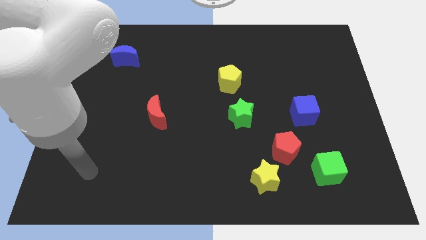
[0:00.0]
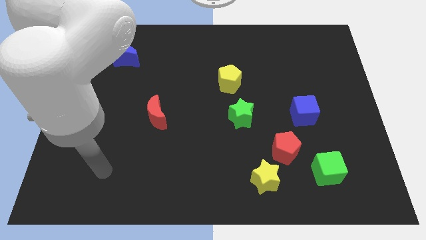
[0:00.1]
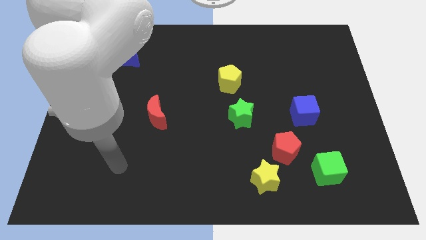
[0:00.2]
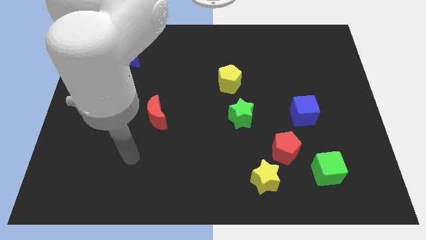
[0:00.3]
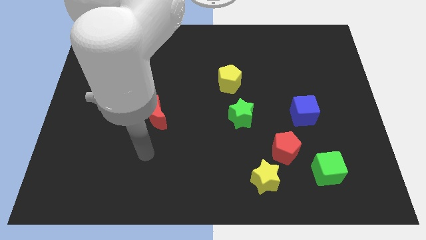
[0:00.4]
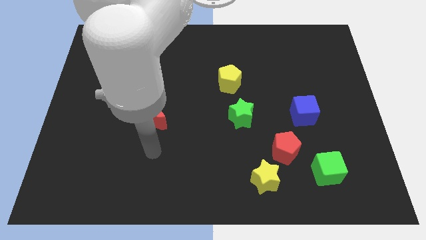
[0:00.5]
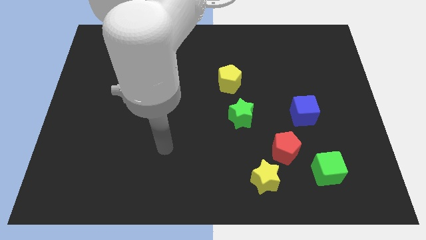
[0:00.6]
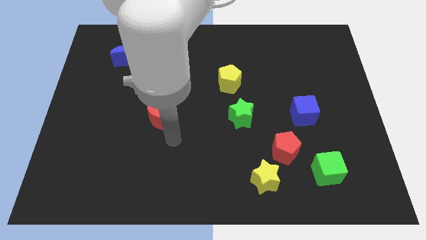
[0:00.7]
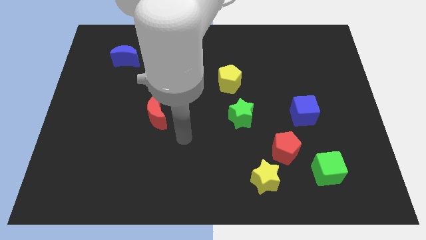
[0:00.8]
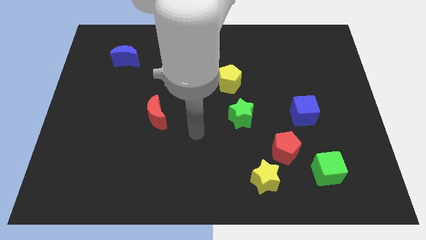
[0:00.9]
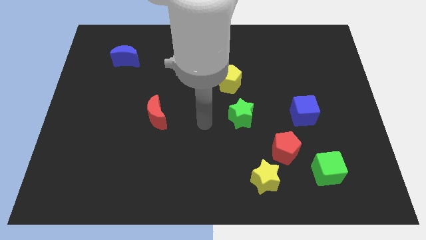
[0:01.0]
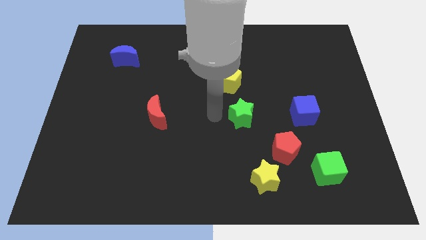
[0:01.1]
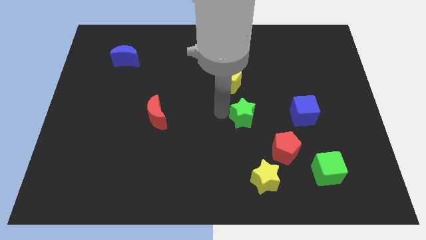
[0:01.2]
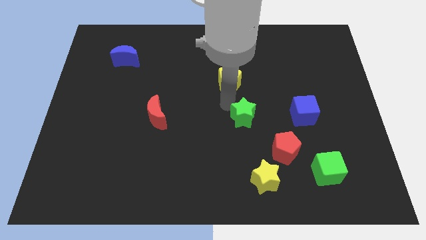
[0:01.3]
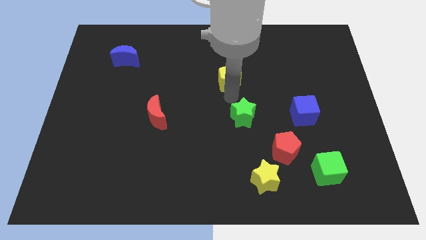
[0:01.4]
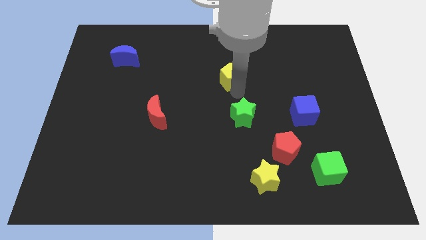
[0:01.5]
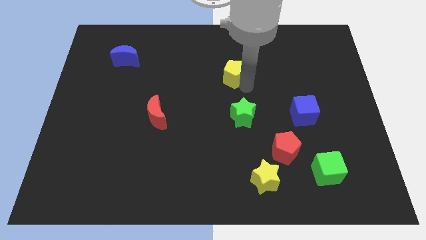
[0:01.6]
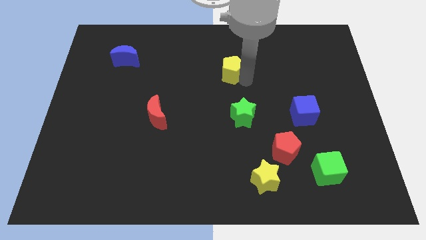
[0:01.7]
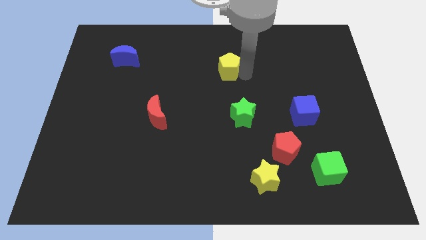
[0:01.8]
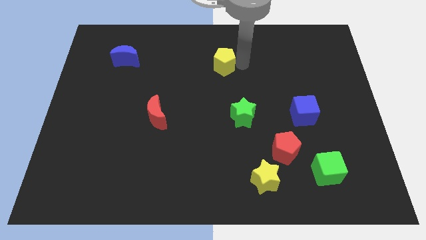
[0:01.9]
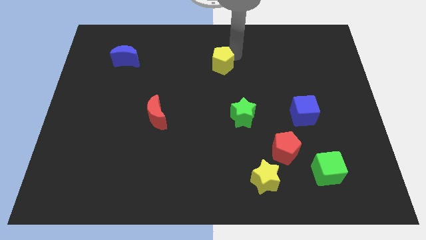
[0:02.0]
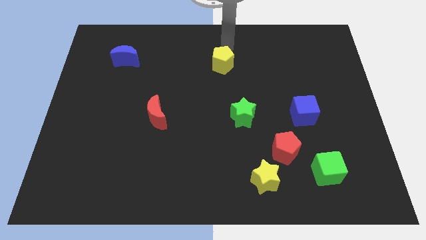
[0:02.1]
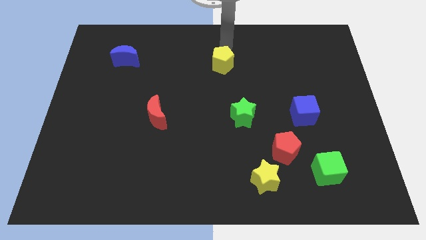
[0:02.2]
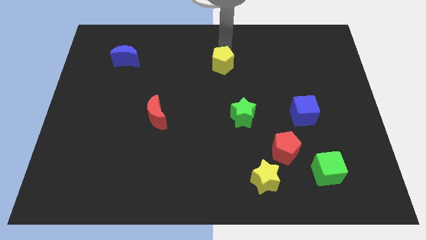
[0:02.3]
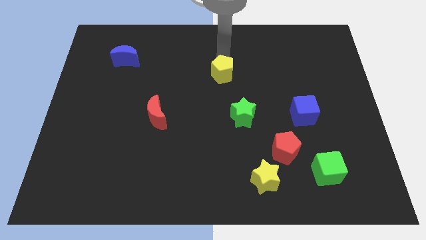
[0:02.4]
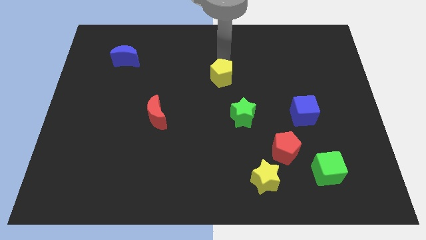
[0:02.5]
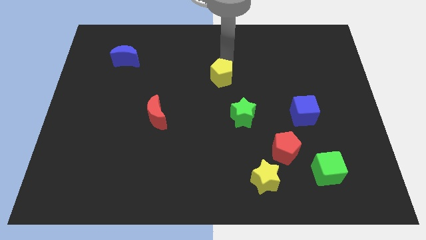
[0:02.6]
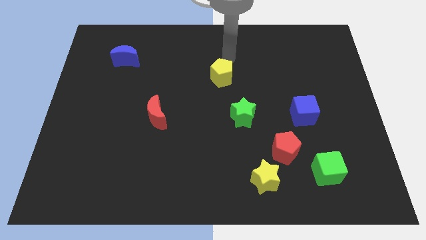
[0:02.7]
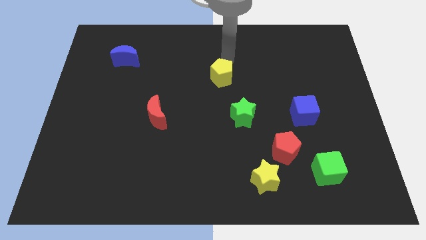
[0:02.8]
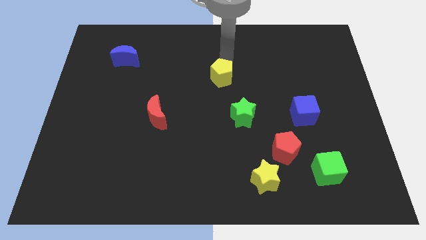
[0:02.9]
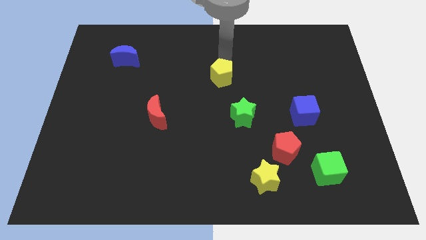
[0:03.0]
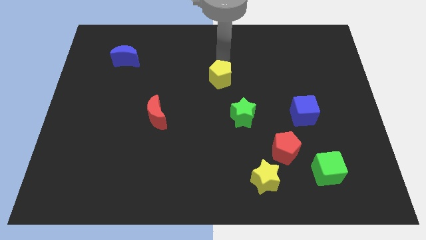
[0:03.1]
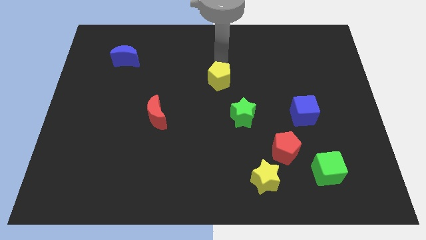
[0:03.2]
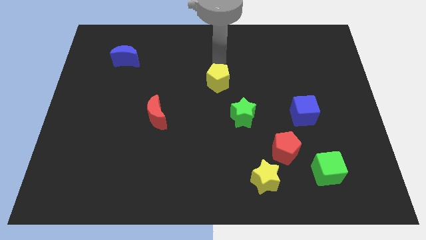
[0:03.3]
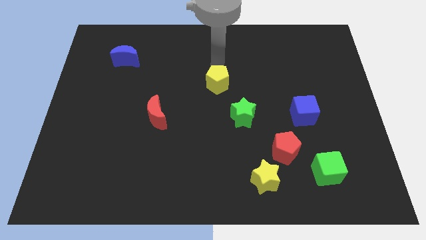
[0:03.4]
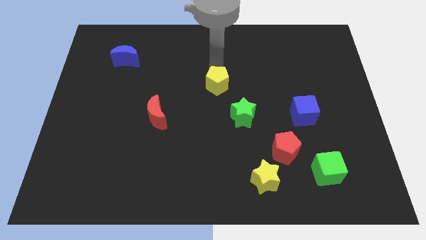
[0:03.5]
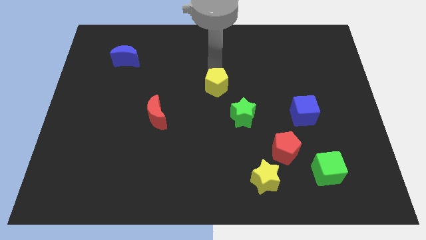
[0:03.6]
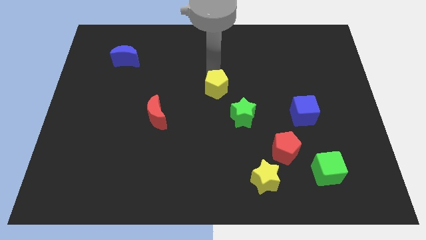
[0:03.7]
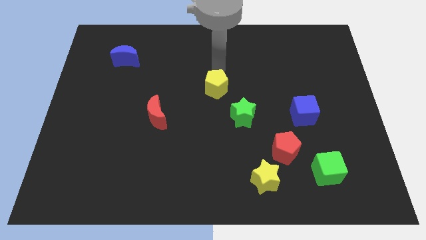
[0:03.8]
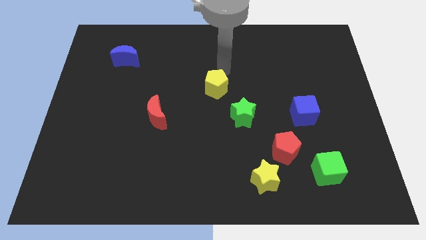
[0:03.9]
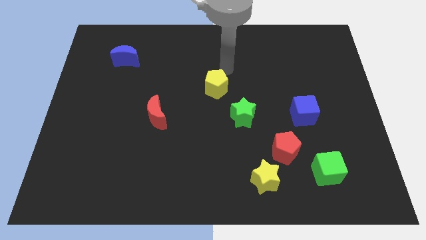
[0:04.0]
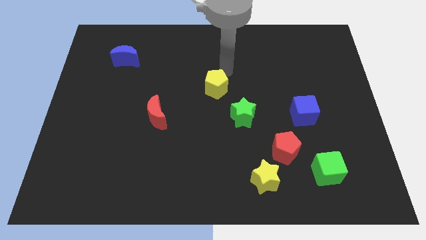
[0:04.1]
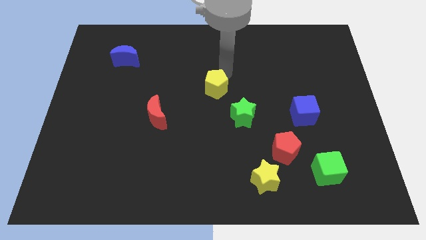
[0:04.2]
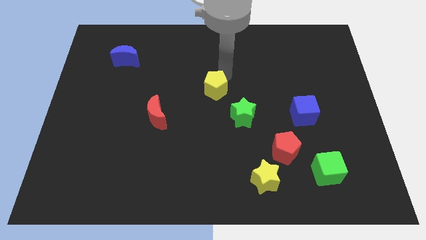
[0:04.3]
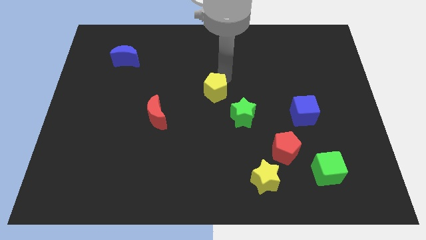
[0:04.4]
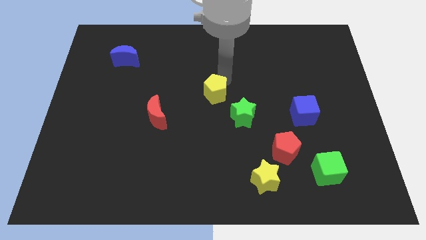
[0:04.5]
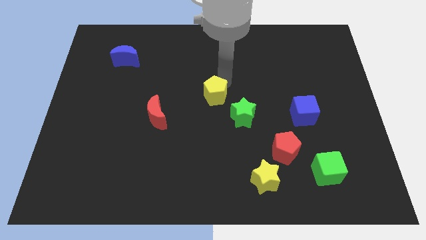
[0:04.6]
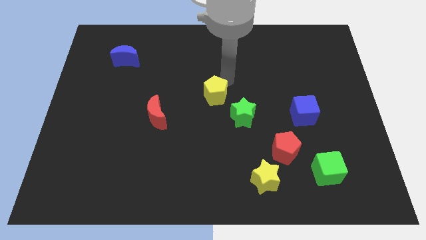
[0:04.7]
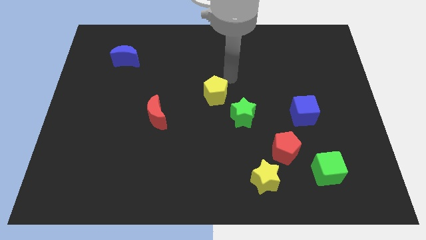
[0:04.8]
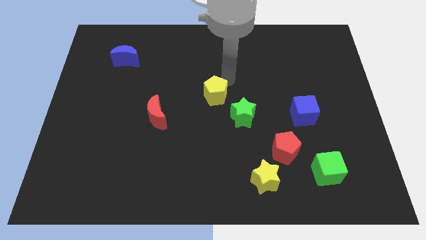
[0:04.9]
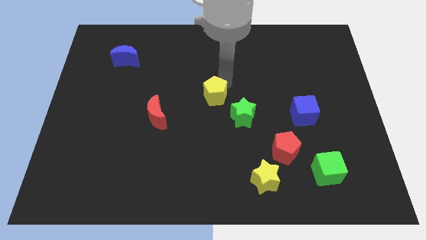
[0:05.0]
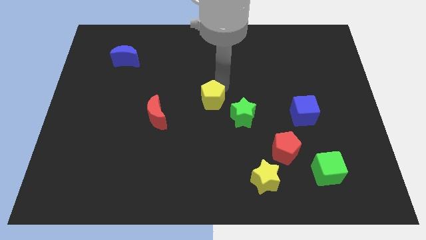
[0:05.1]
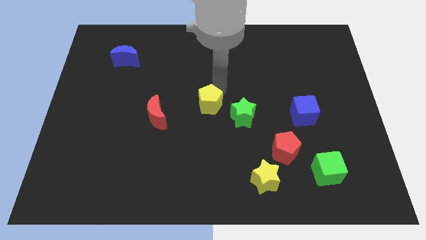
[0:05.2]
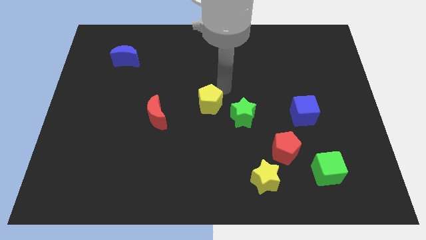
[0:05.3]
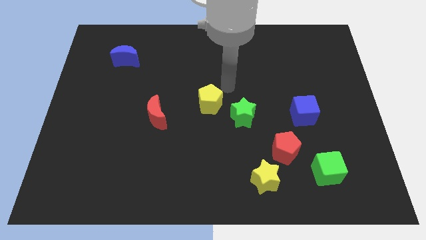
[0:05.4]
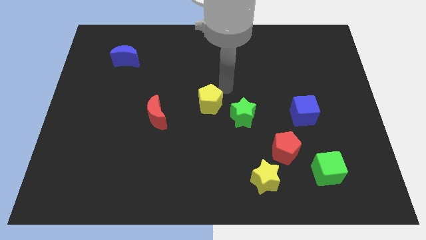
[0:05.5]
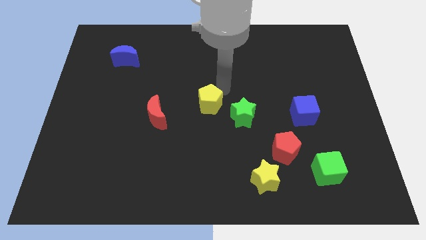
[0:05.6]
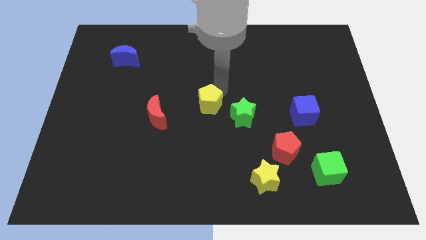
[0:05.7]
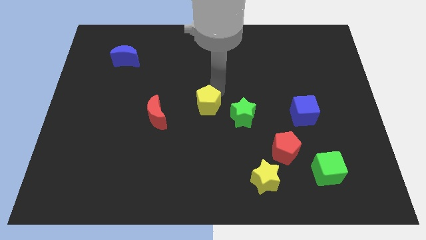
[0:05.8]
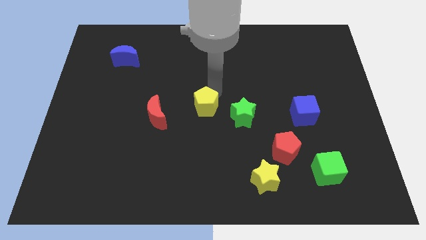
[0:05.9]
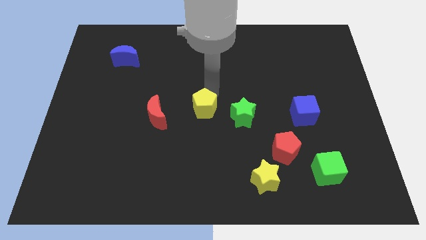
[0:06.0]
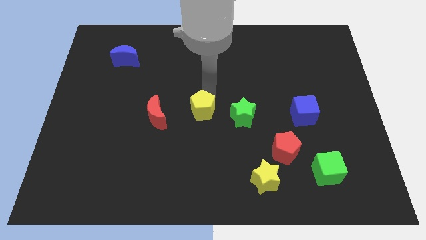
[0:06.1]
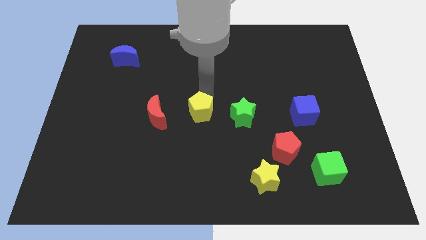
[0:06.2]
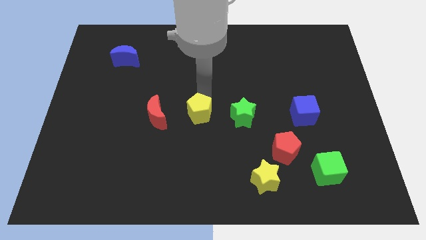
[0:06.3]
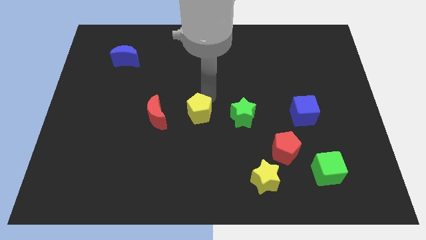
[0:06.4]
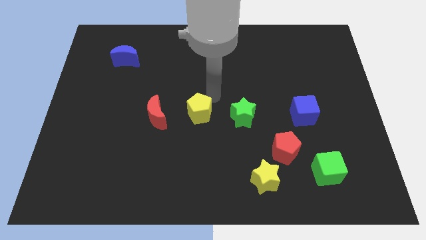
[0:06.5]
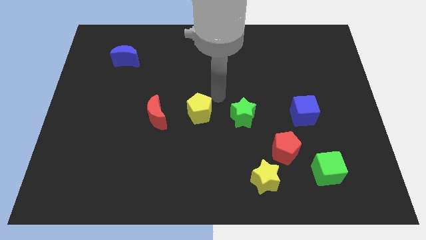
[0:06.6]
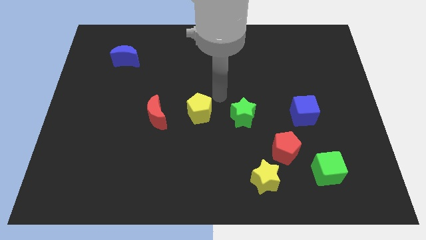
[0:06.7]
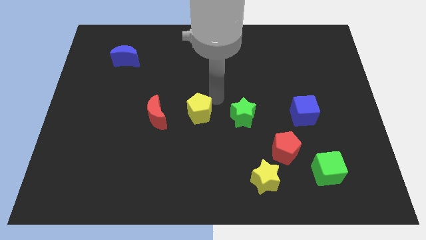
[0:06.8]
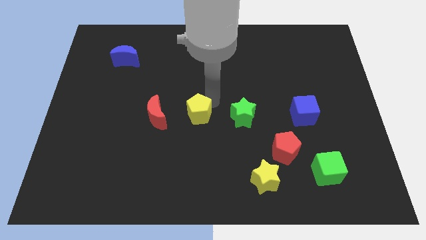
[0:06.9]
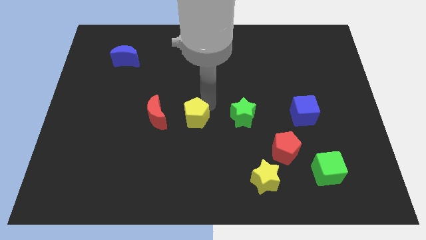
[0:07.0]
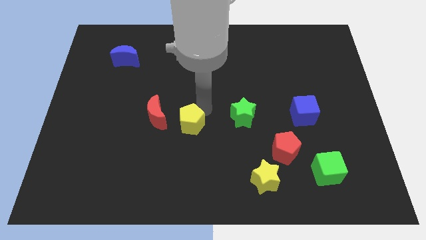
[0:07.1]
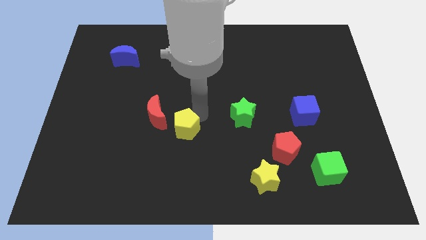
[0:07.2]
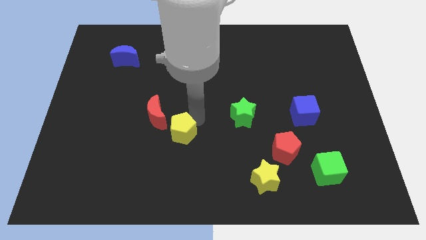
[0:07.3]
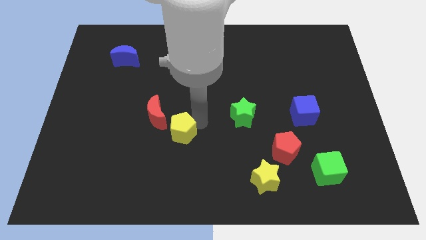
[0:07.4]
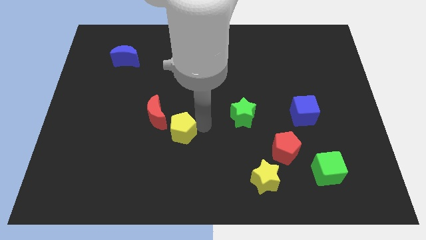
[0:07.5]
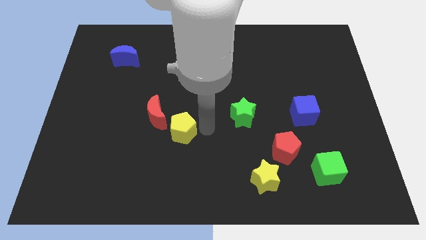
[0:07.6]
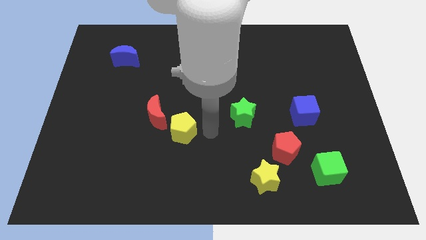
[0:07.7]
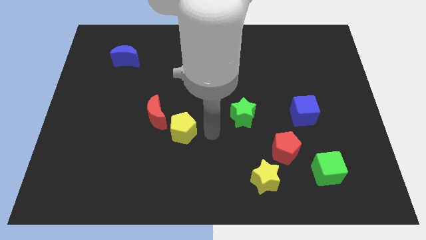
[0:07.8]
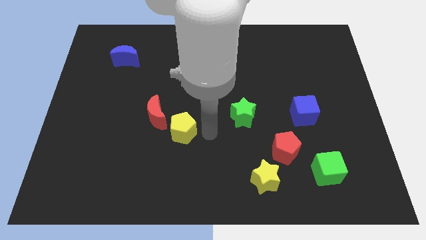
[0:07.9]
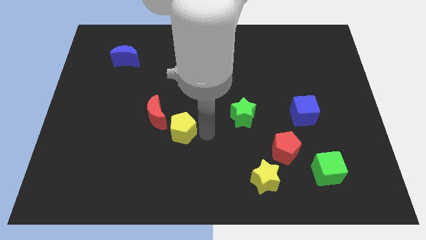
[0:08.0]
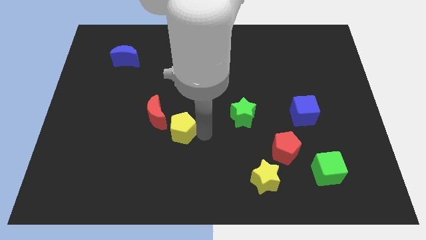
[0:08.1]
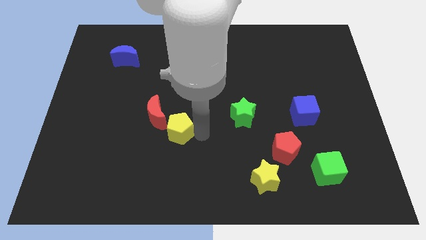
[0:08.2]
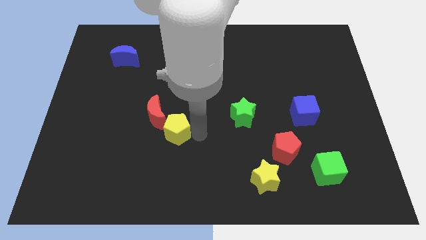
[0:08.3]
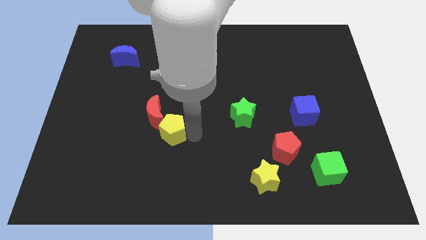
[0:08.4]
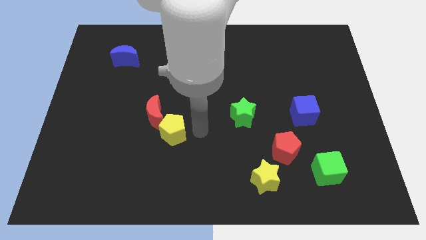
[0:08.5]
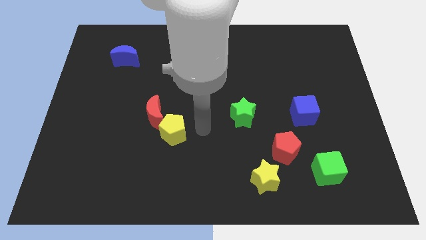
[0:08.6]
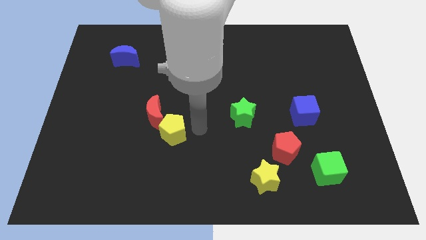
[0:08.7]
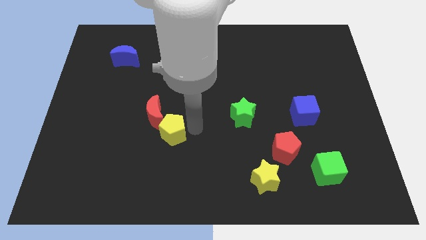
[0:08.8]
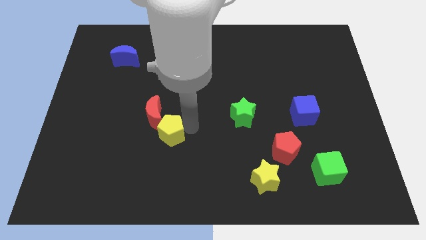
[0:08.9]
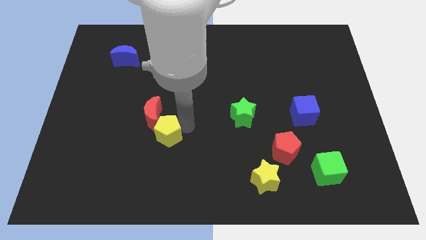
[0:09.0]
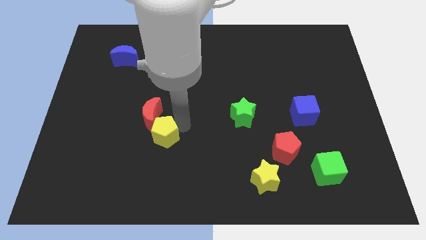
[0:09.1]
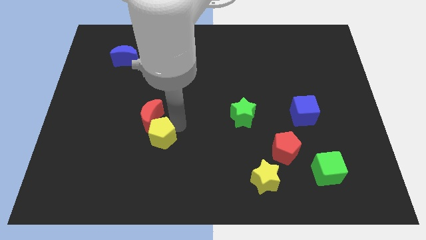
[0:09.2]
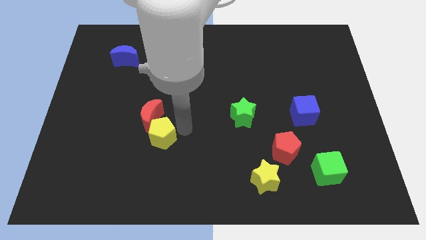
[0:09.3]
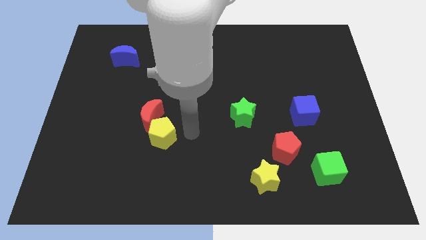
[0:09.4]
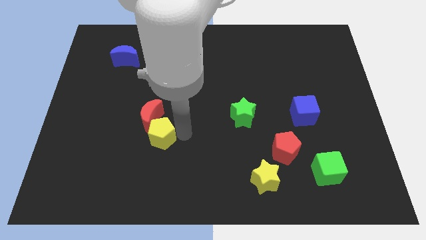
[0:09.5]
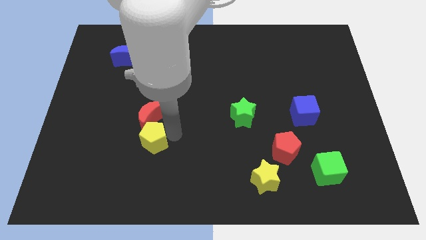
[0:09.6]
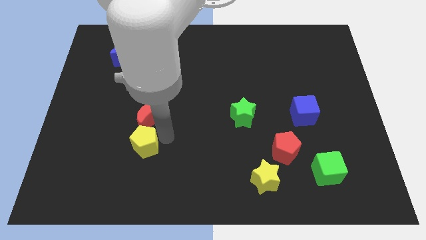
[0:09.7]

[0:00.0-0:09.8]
slide the yellow pentagon to the bottom left of the red moon
